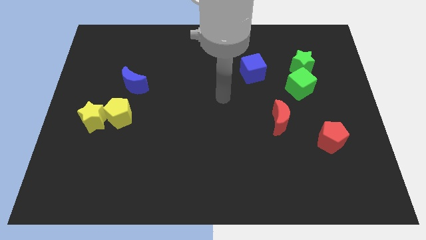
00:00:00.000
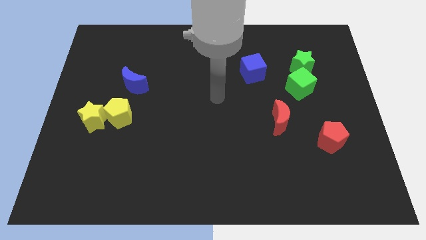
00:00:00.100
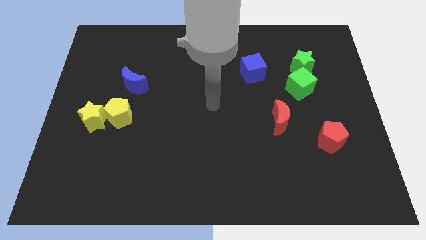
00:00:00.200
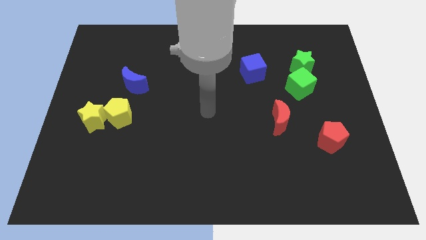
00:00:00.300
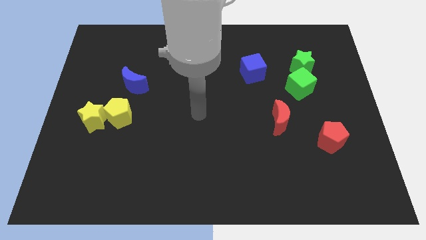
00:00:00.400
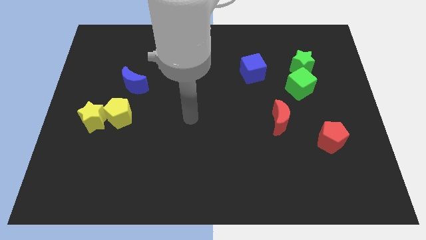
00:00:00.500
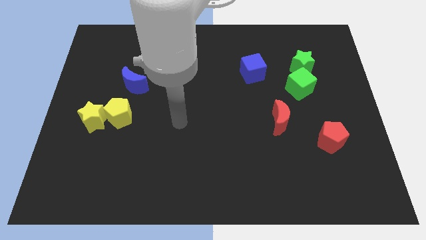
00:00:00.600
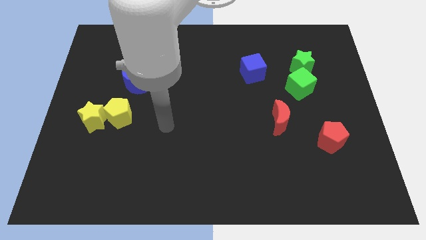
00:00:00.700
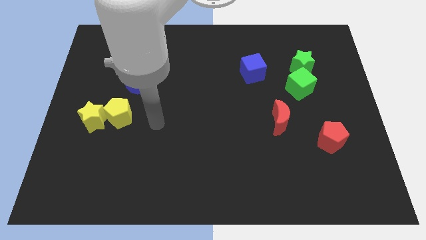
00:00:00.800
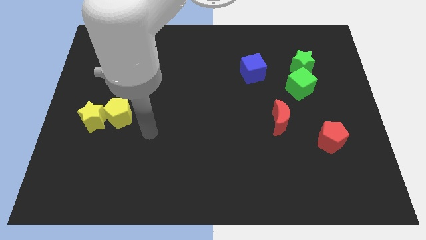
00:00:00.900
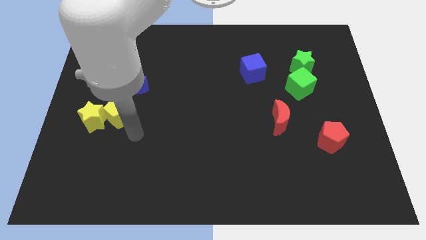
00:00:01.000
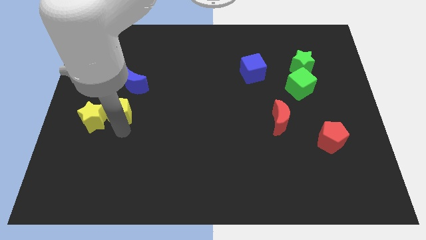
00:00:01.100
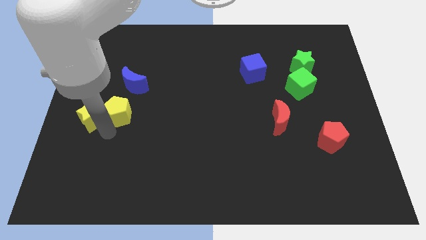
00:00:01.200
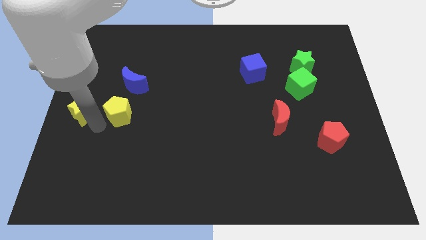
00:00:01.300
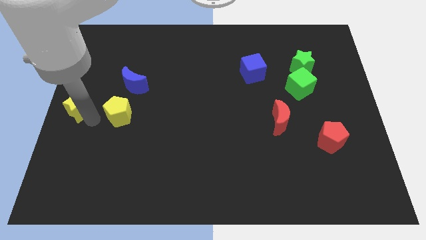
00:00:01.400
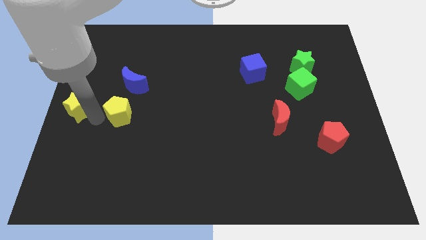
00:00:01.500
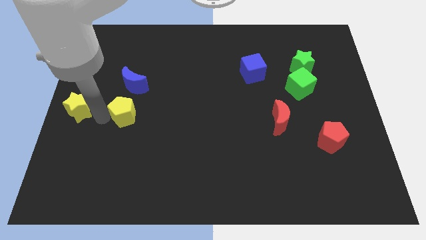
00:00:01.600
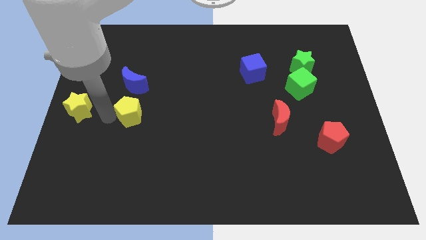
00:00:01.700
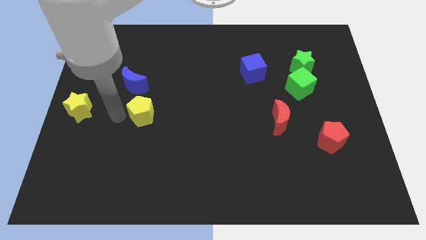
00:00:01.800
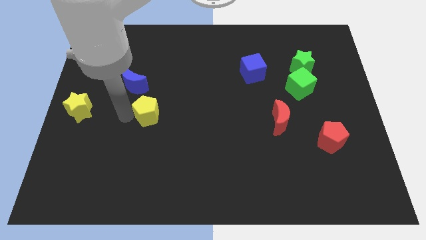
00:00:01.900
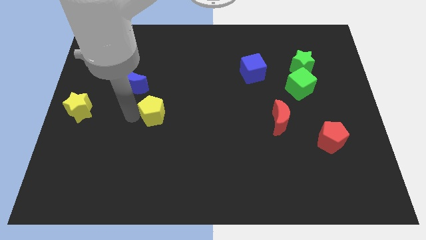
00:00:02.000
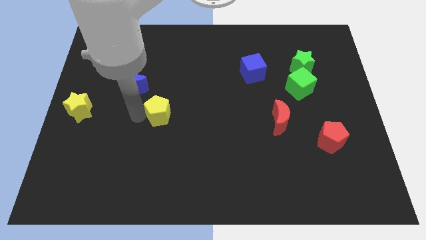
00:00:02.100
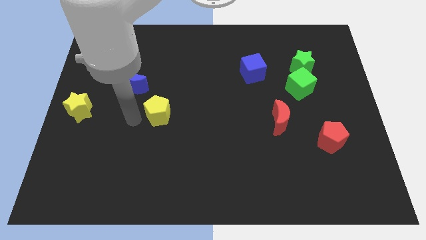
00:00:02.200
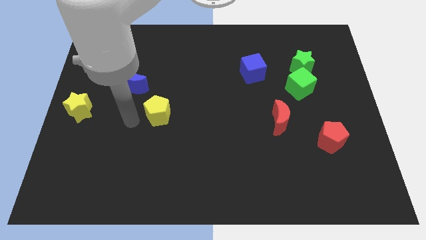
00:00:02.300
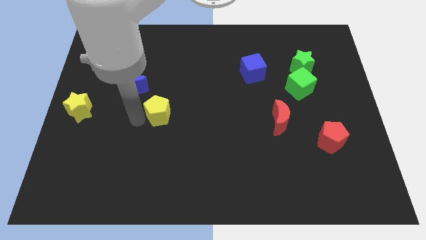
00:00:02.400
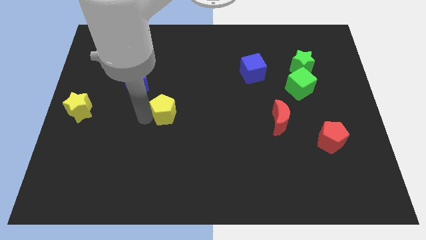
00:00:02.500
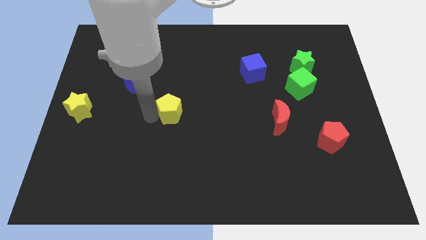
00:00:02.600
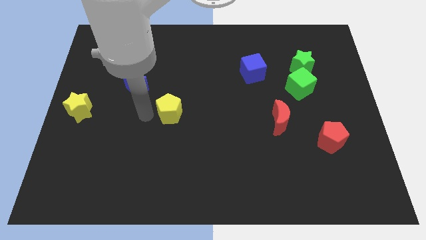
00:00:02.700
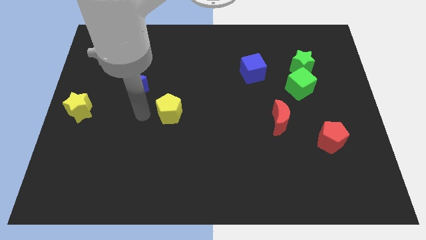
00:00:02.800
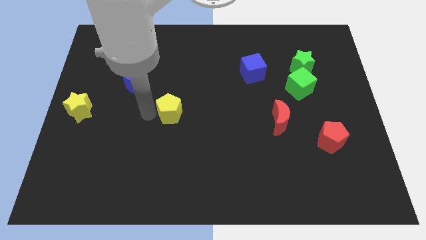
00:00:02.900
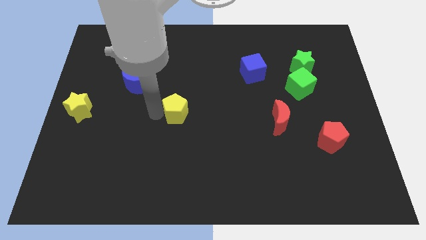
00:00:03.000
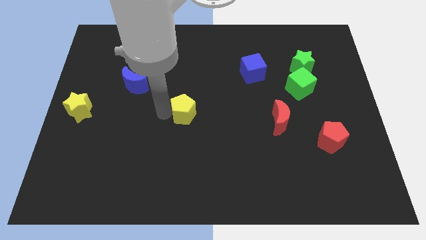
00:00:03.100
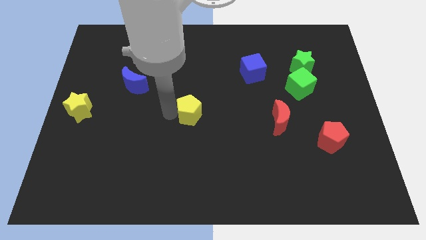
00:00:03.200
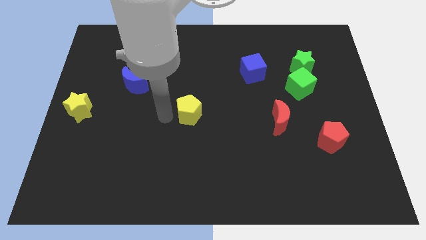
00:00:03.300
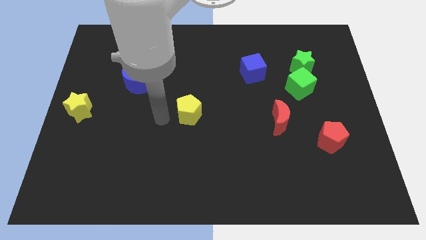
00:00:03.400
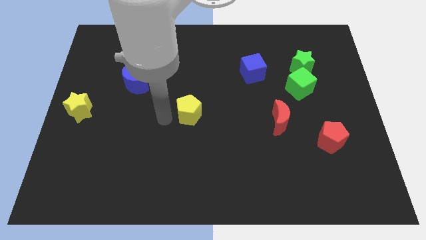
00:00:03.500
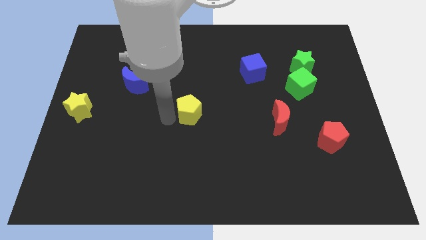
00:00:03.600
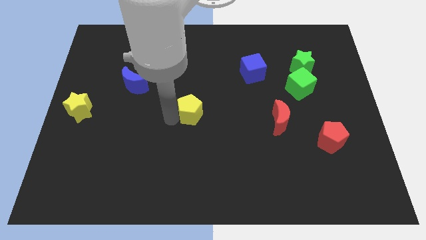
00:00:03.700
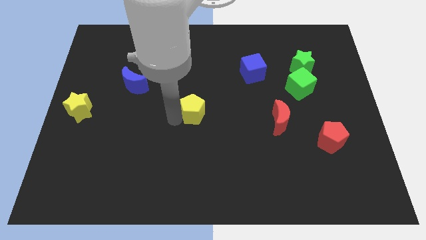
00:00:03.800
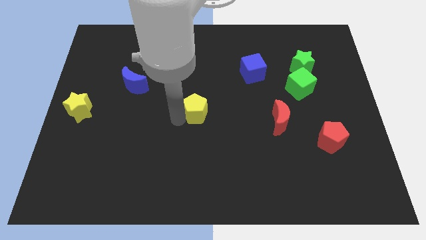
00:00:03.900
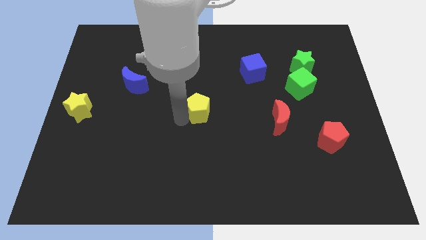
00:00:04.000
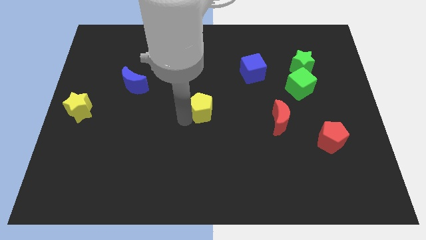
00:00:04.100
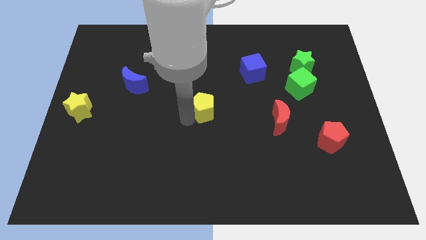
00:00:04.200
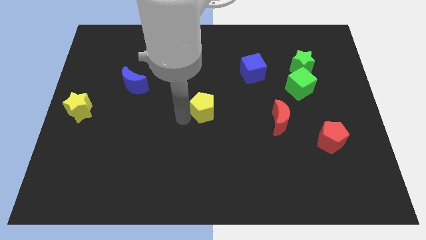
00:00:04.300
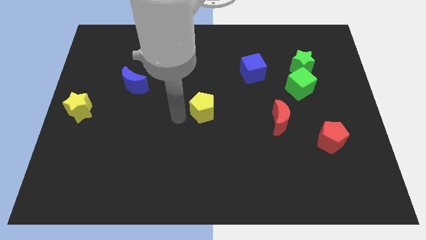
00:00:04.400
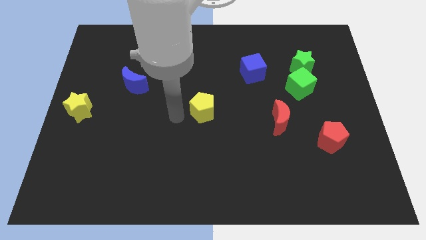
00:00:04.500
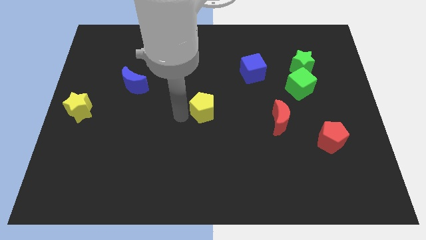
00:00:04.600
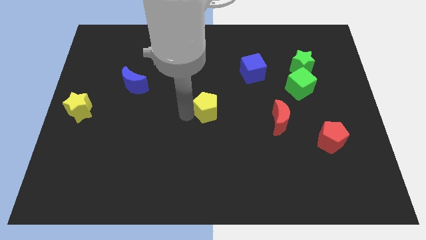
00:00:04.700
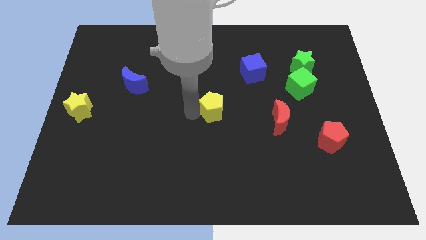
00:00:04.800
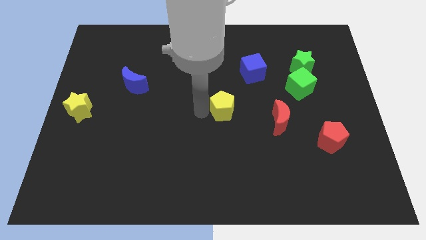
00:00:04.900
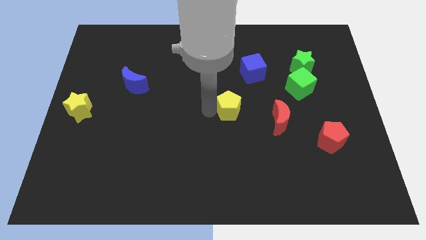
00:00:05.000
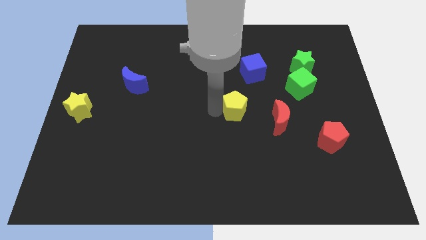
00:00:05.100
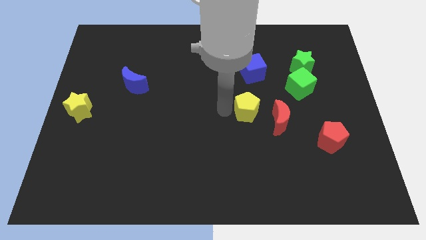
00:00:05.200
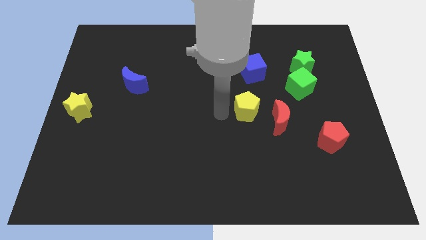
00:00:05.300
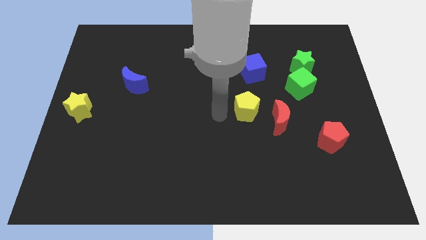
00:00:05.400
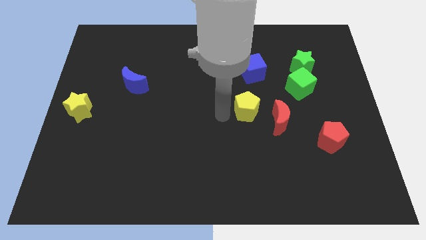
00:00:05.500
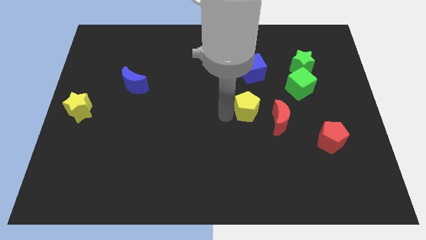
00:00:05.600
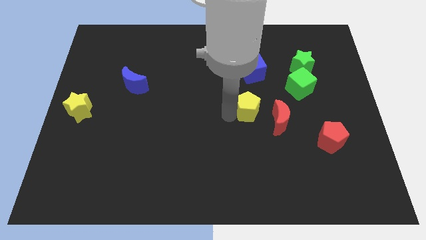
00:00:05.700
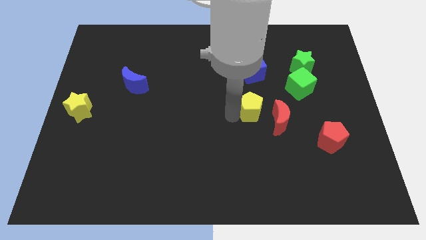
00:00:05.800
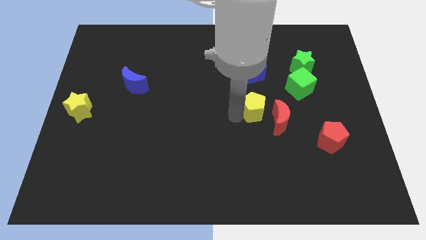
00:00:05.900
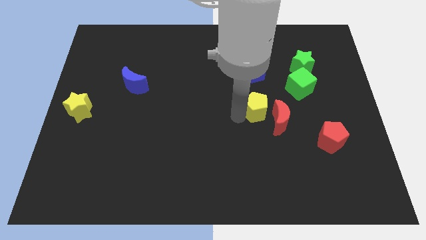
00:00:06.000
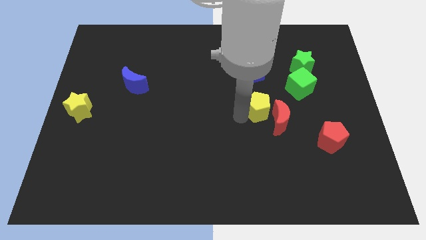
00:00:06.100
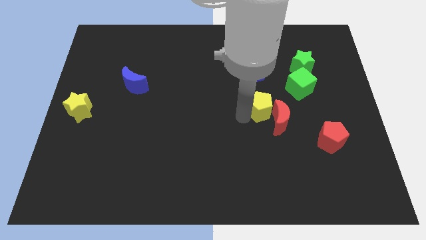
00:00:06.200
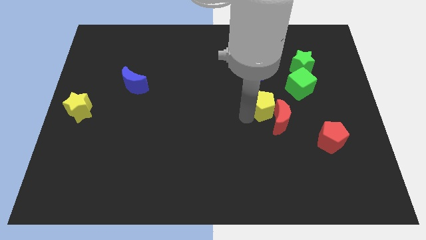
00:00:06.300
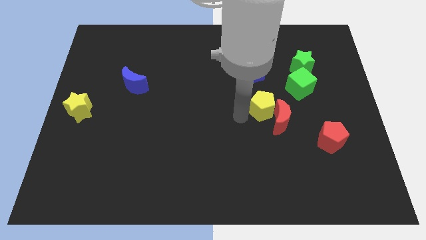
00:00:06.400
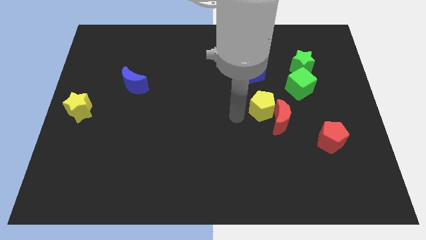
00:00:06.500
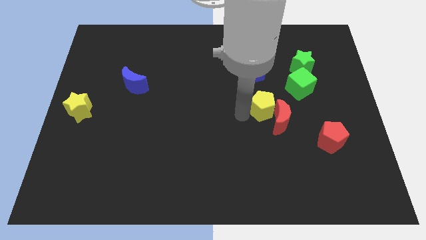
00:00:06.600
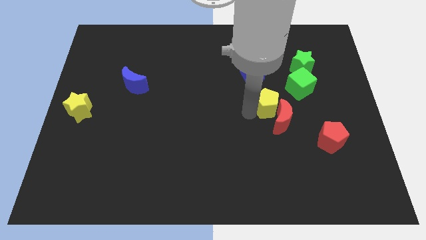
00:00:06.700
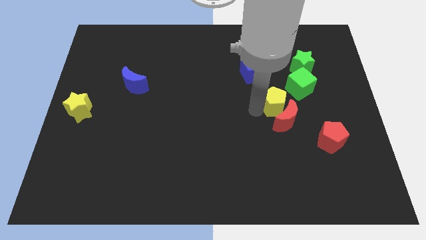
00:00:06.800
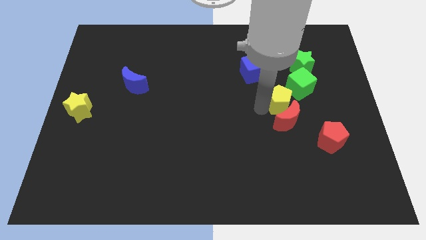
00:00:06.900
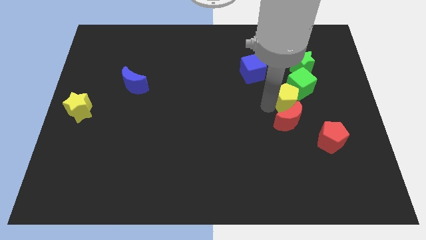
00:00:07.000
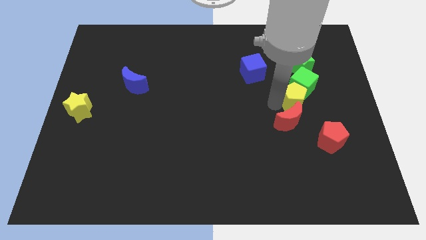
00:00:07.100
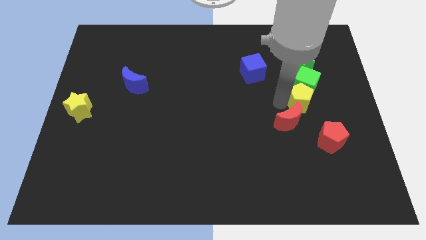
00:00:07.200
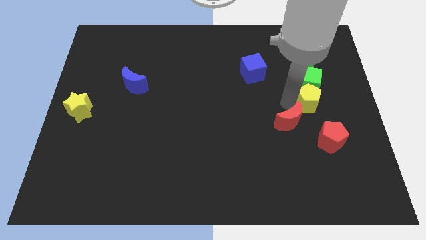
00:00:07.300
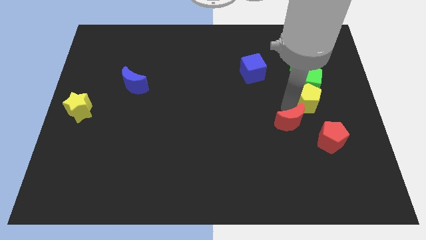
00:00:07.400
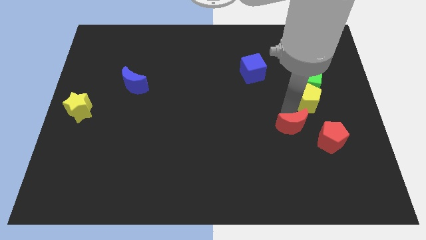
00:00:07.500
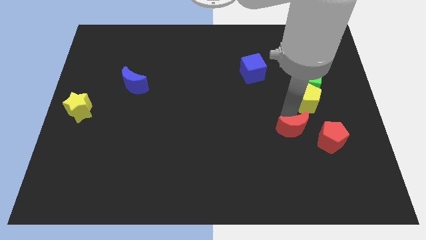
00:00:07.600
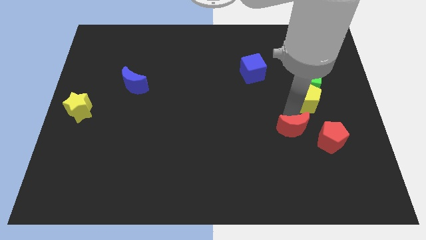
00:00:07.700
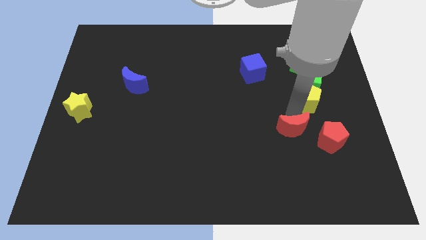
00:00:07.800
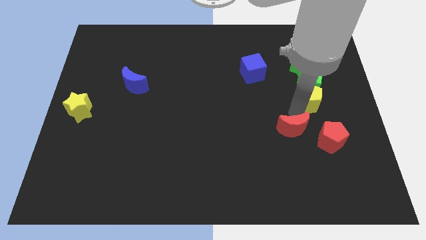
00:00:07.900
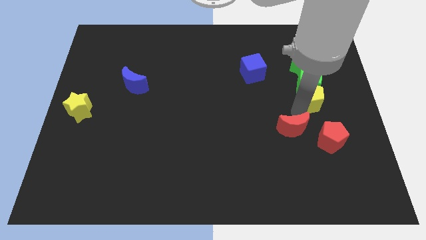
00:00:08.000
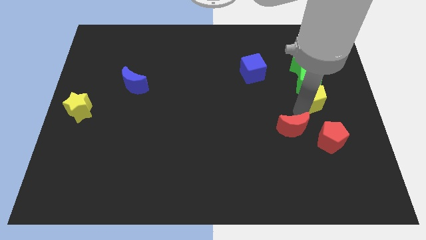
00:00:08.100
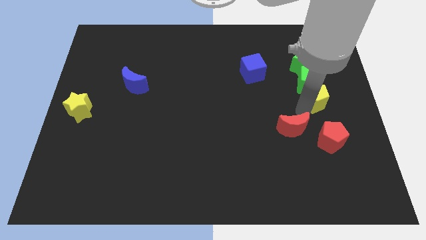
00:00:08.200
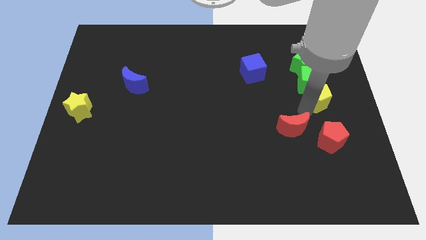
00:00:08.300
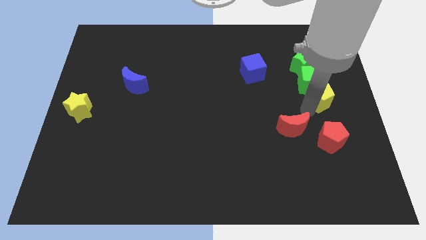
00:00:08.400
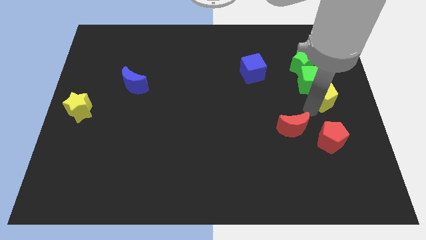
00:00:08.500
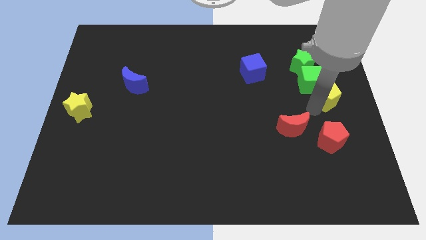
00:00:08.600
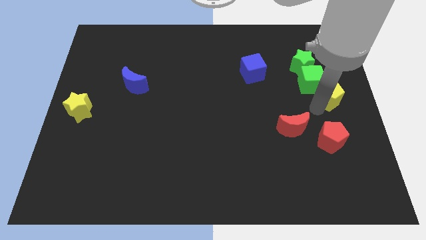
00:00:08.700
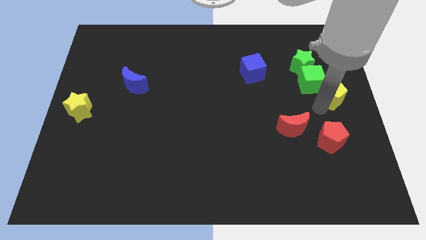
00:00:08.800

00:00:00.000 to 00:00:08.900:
move the yellow pentagon diagonally down and to the right of the green star
